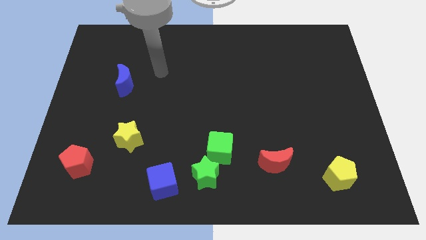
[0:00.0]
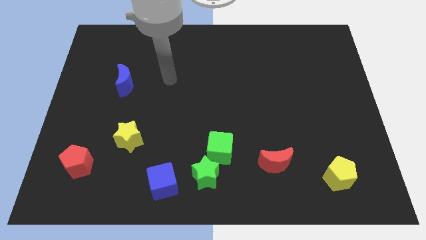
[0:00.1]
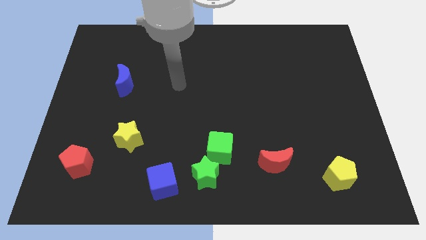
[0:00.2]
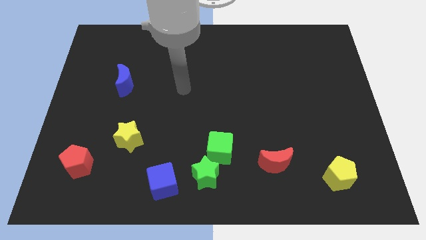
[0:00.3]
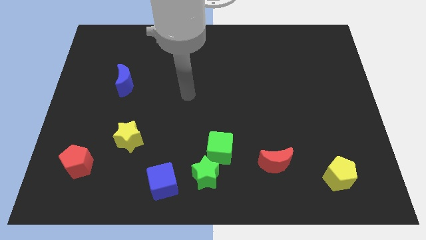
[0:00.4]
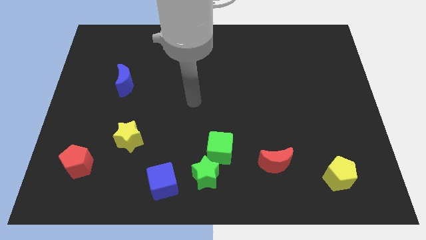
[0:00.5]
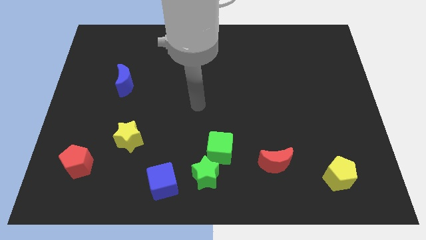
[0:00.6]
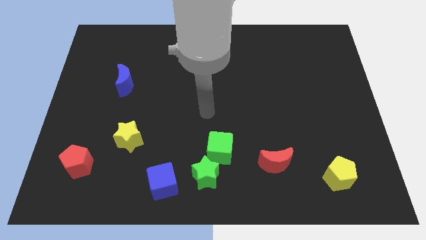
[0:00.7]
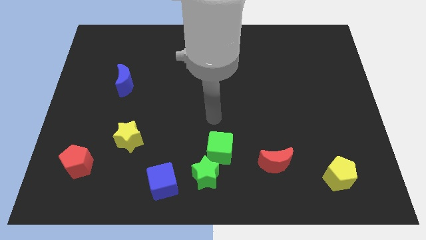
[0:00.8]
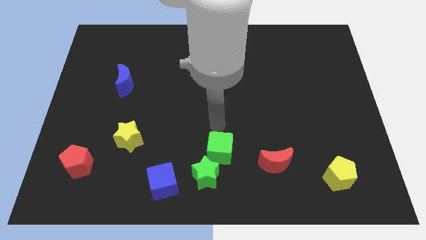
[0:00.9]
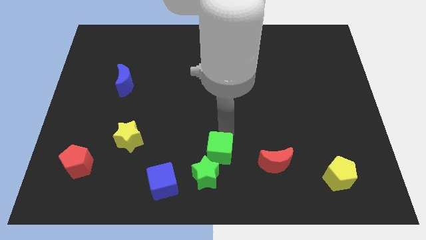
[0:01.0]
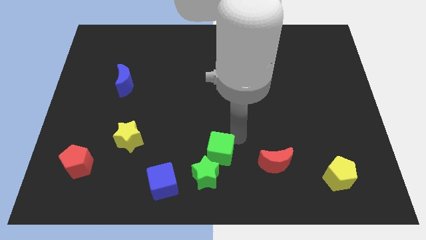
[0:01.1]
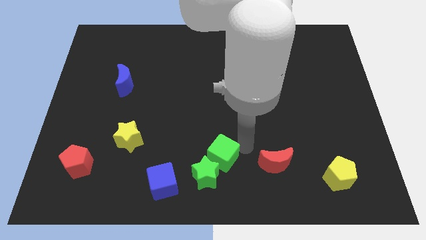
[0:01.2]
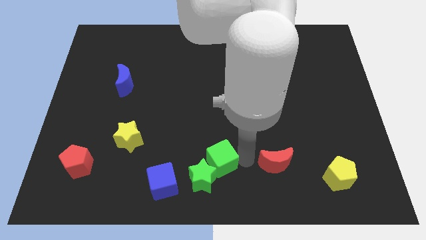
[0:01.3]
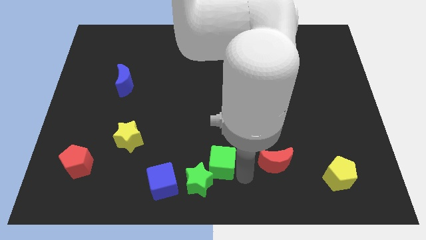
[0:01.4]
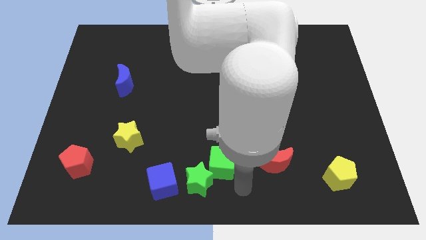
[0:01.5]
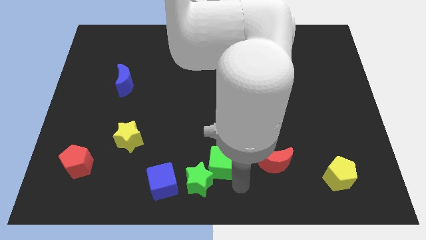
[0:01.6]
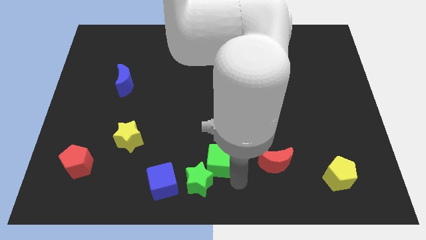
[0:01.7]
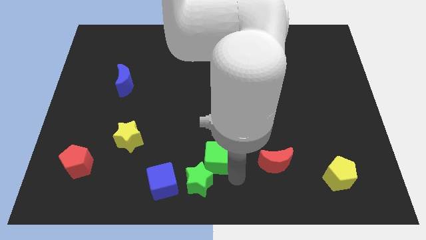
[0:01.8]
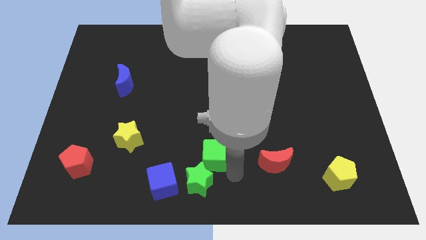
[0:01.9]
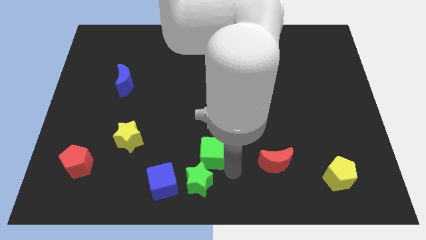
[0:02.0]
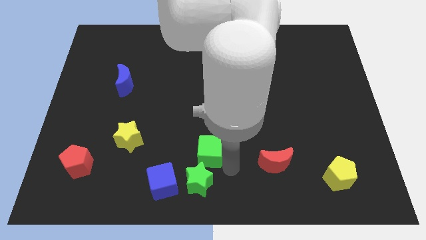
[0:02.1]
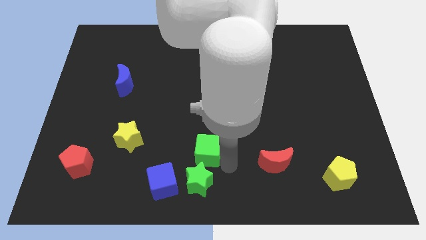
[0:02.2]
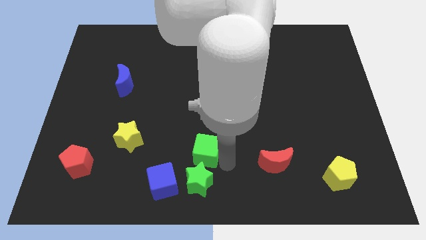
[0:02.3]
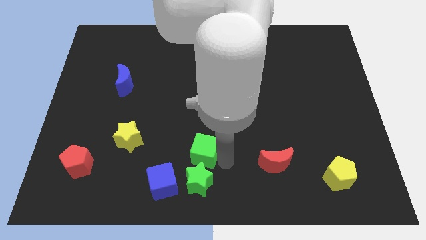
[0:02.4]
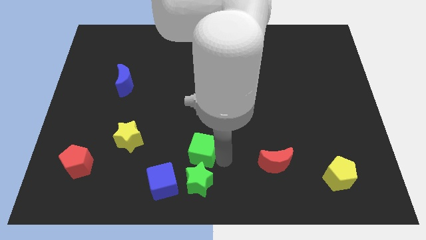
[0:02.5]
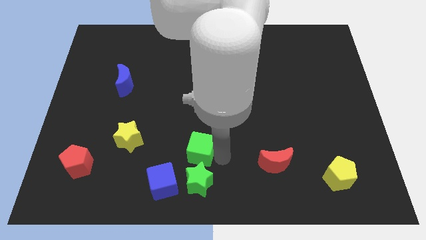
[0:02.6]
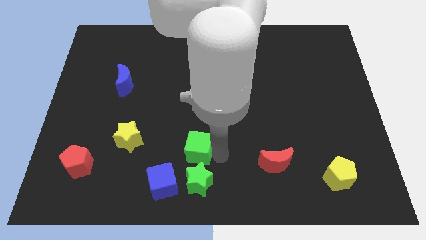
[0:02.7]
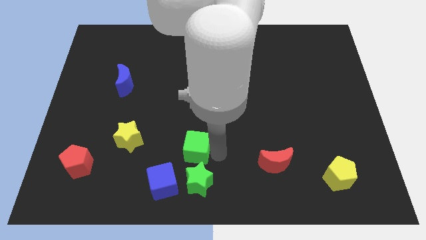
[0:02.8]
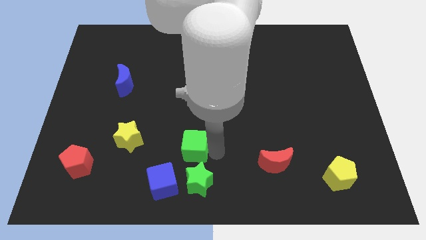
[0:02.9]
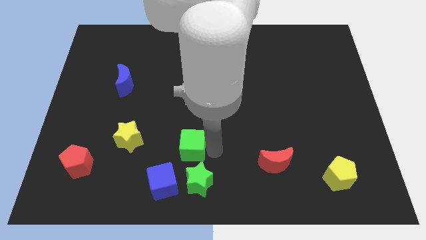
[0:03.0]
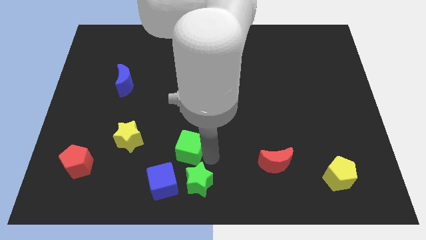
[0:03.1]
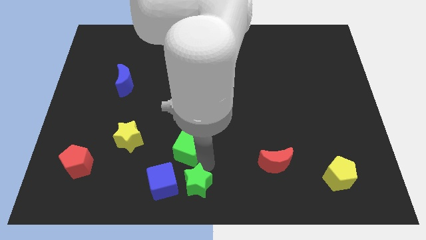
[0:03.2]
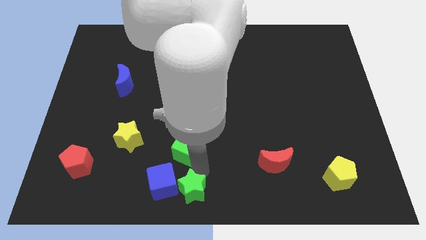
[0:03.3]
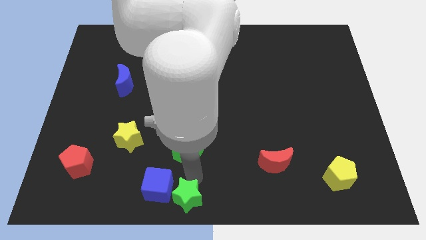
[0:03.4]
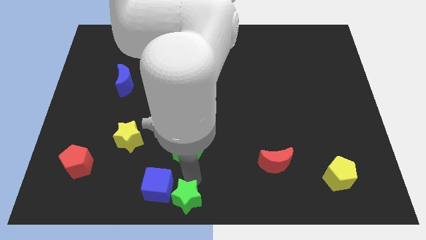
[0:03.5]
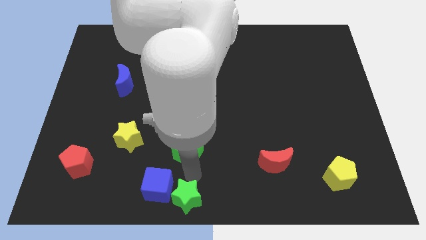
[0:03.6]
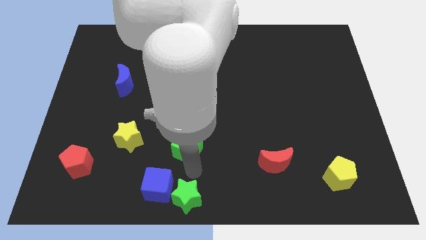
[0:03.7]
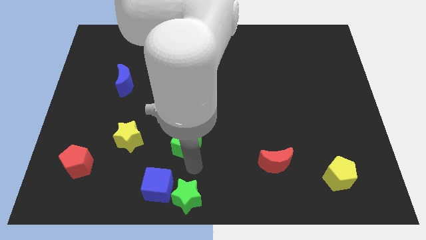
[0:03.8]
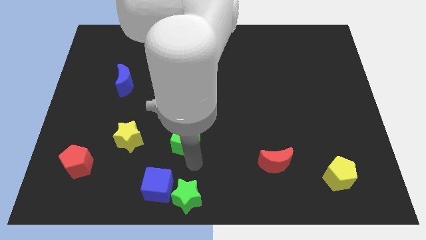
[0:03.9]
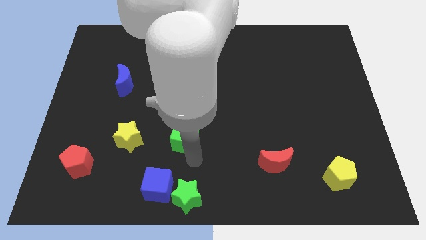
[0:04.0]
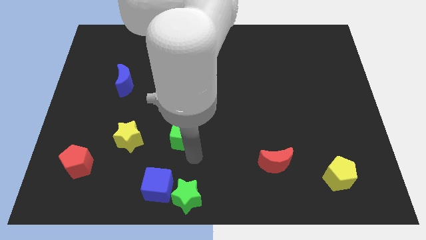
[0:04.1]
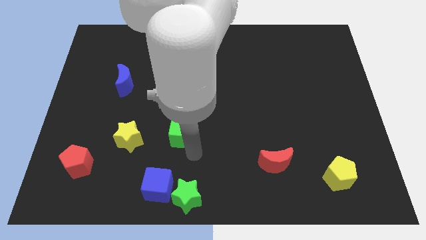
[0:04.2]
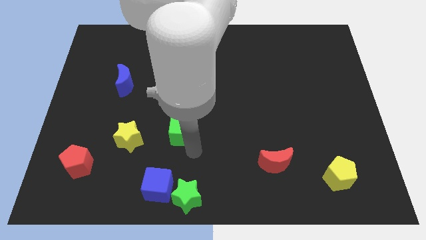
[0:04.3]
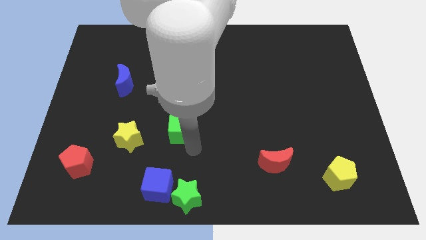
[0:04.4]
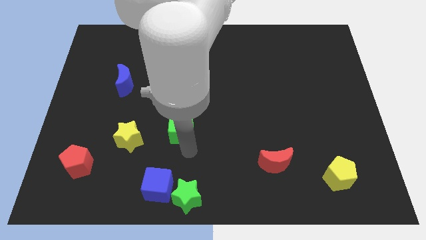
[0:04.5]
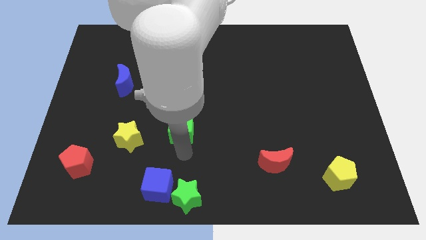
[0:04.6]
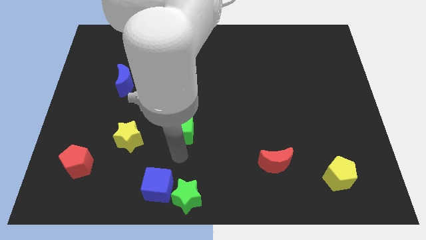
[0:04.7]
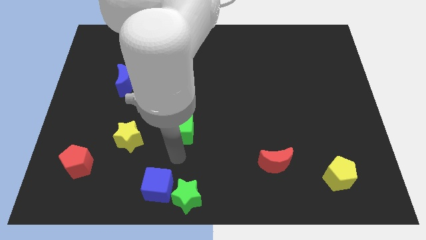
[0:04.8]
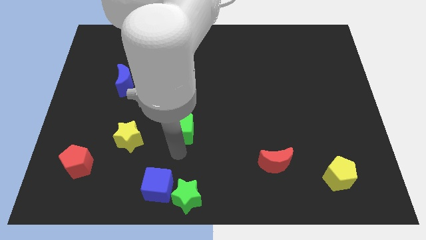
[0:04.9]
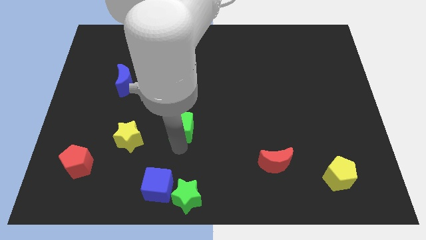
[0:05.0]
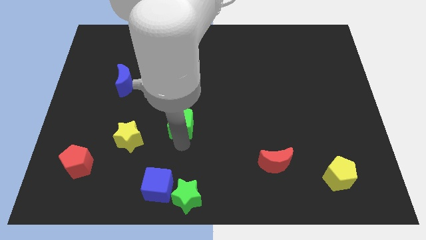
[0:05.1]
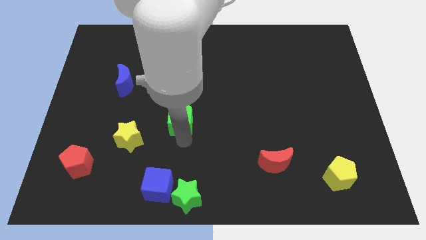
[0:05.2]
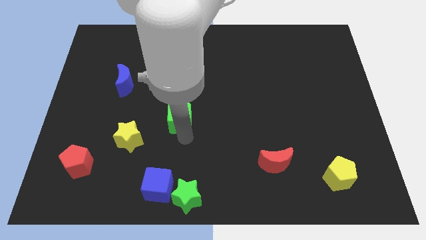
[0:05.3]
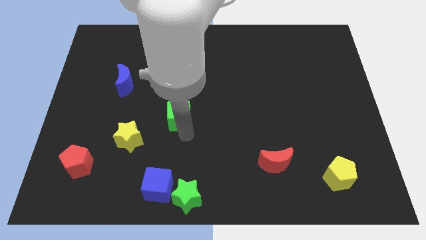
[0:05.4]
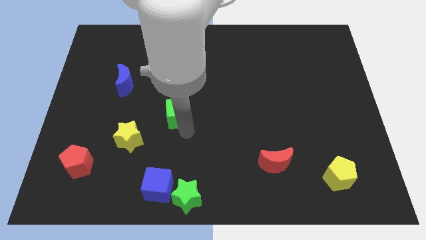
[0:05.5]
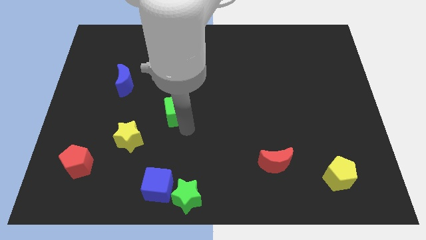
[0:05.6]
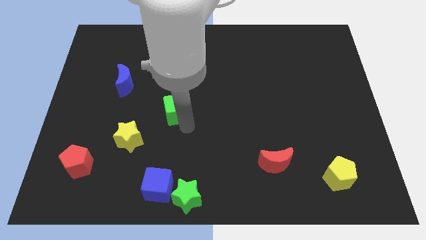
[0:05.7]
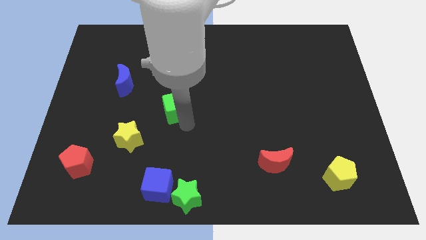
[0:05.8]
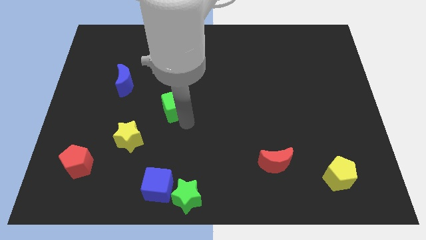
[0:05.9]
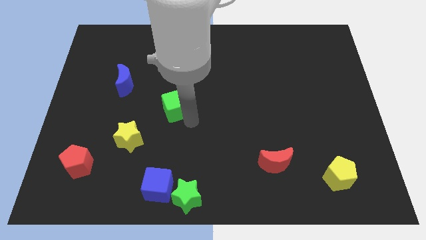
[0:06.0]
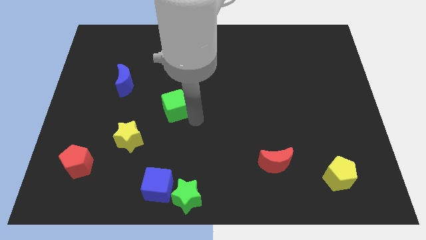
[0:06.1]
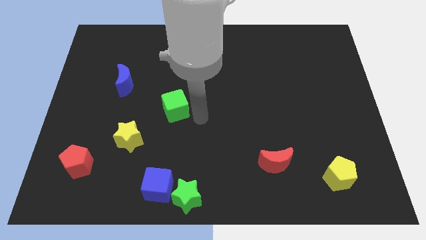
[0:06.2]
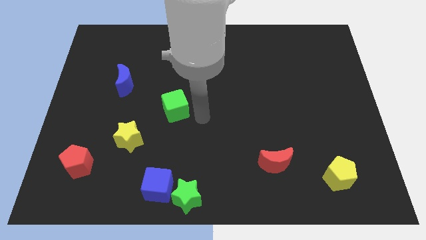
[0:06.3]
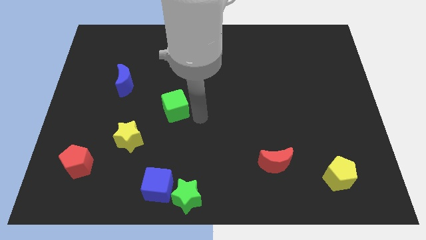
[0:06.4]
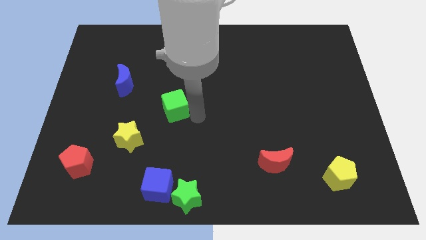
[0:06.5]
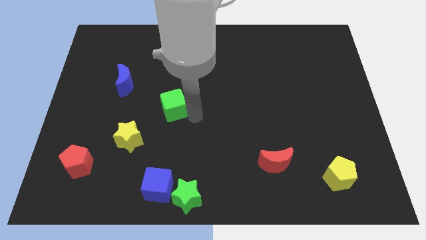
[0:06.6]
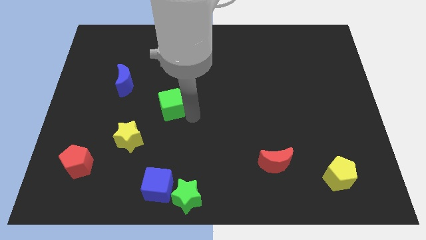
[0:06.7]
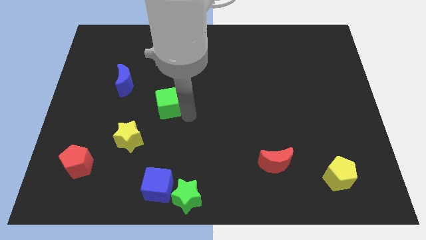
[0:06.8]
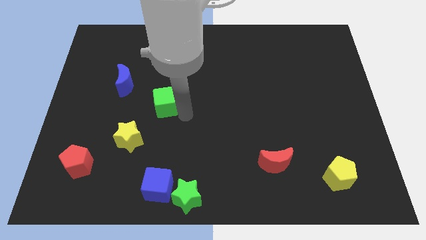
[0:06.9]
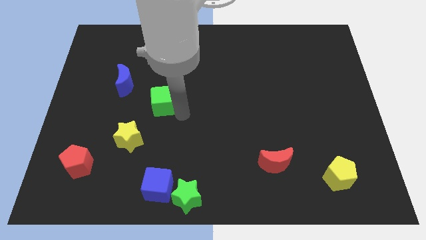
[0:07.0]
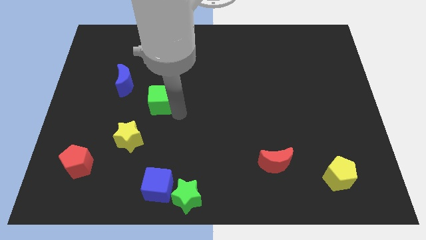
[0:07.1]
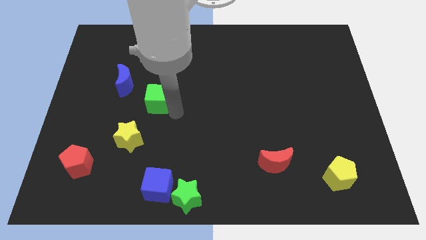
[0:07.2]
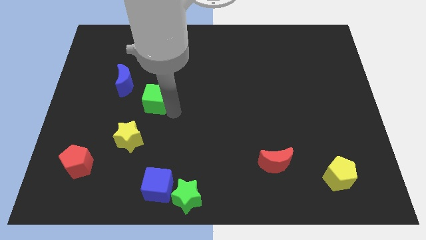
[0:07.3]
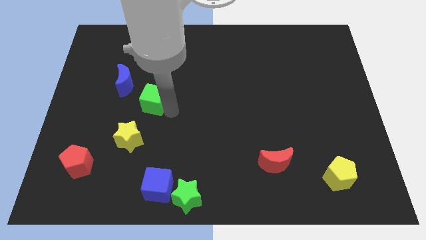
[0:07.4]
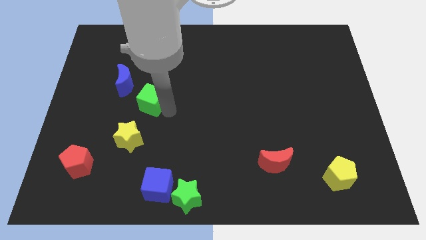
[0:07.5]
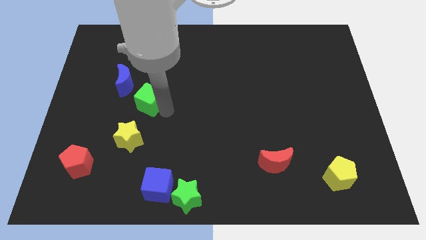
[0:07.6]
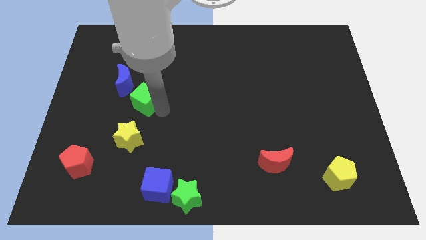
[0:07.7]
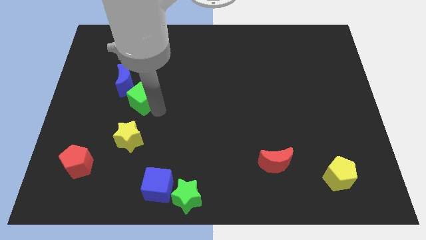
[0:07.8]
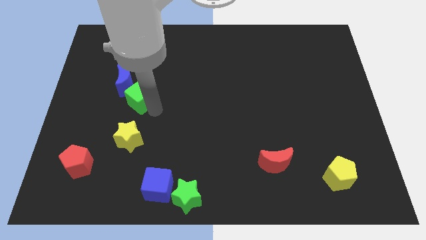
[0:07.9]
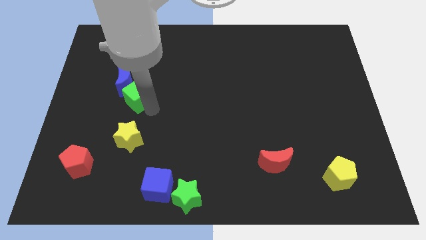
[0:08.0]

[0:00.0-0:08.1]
slide the green cube next to the blue moon
